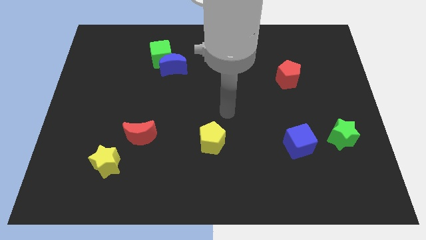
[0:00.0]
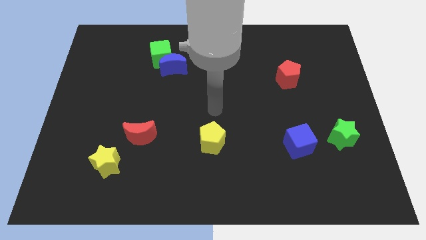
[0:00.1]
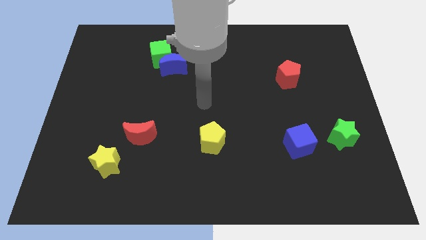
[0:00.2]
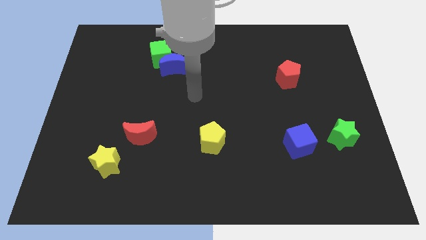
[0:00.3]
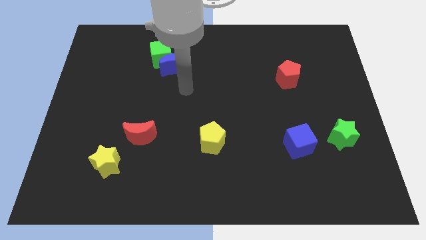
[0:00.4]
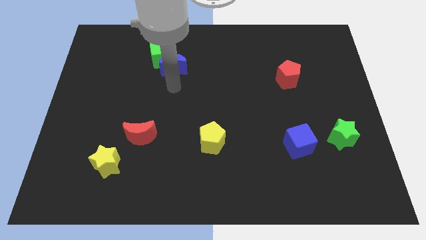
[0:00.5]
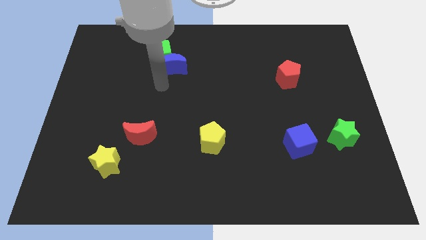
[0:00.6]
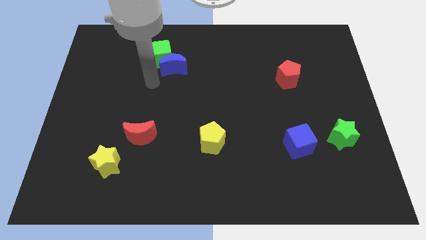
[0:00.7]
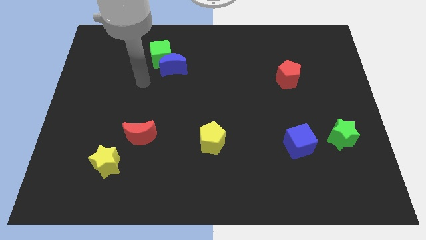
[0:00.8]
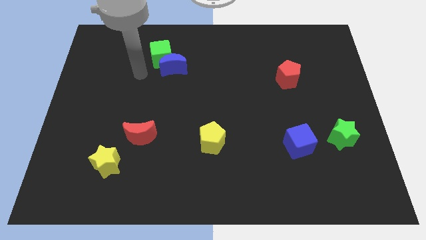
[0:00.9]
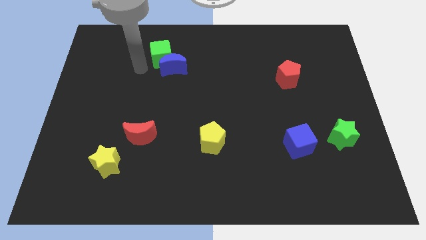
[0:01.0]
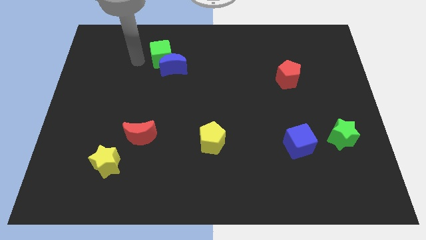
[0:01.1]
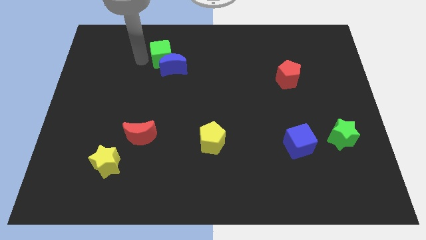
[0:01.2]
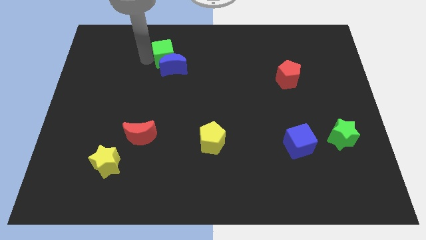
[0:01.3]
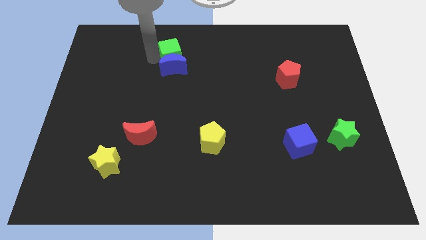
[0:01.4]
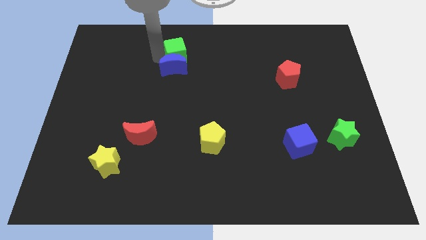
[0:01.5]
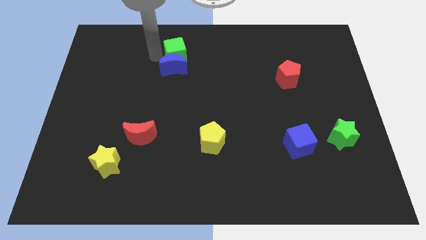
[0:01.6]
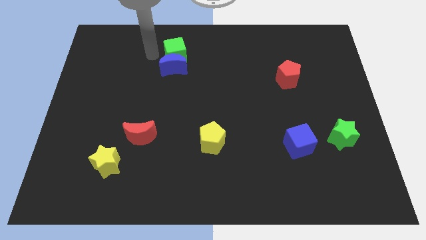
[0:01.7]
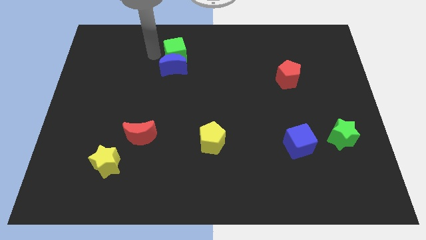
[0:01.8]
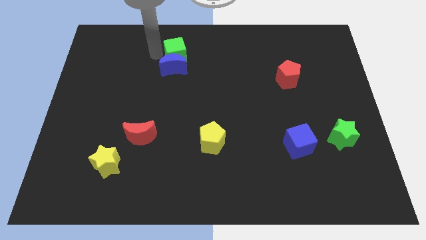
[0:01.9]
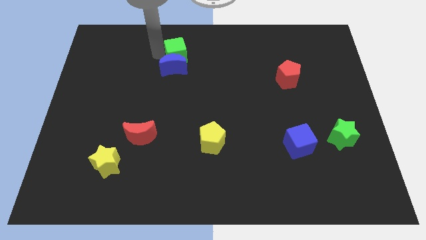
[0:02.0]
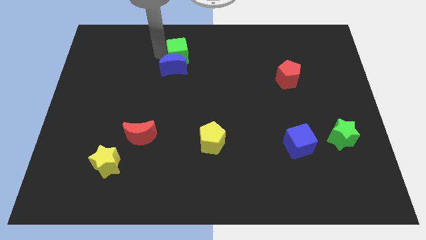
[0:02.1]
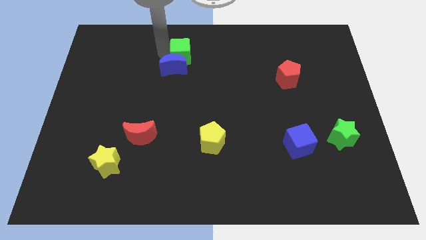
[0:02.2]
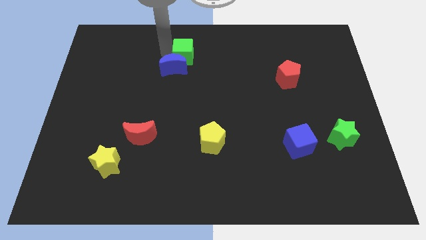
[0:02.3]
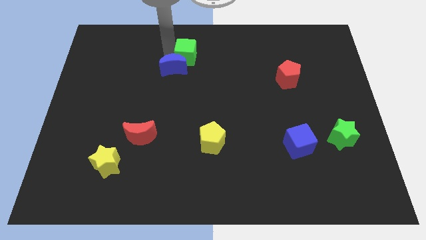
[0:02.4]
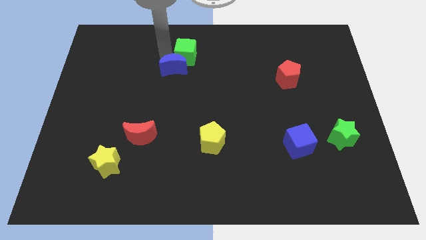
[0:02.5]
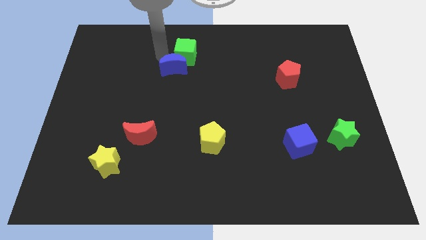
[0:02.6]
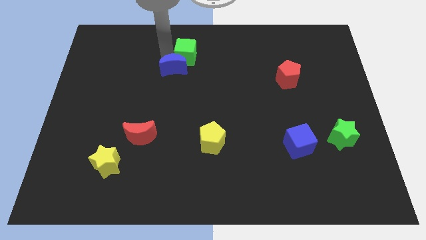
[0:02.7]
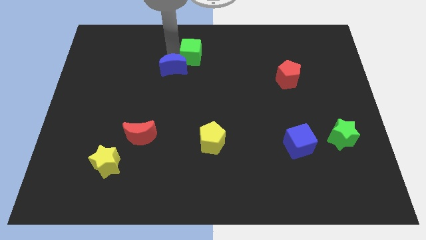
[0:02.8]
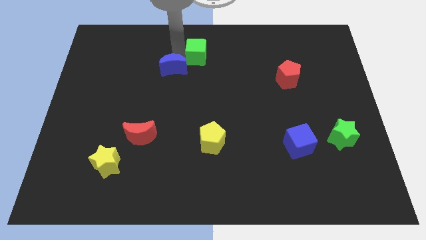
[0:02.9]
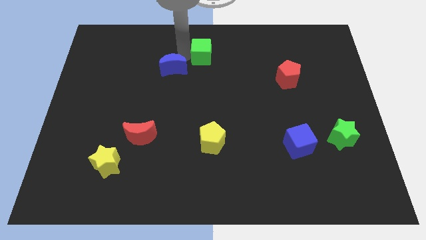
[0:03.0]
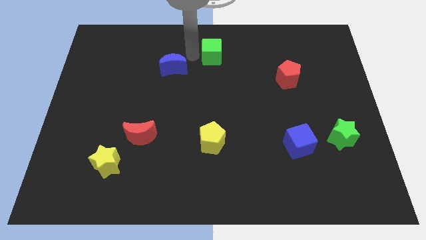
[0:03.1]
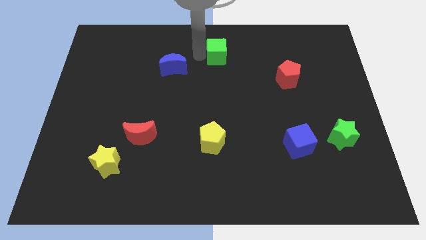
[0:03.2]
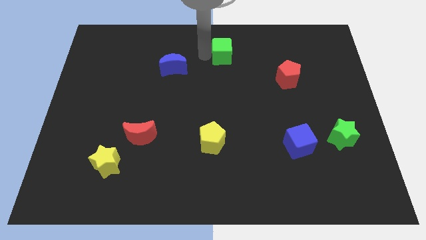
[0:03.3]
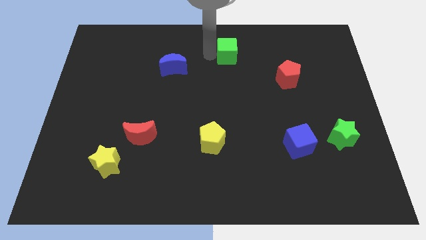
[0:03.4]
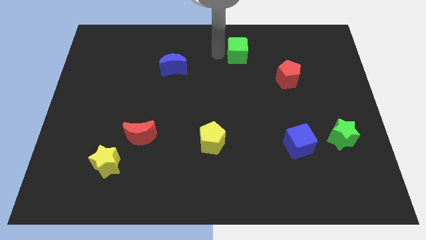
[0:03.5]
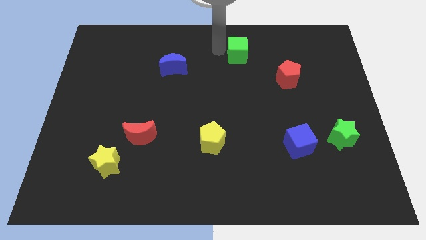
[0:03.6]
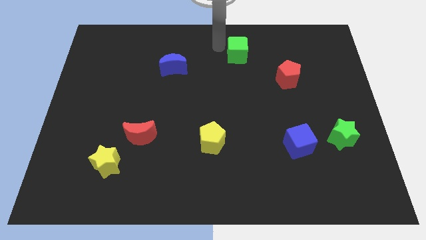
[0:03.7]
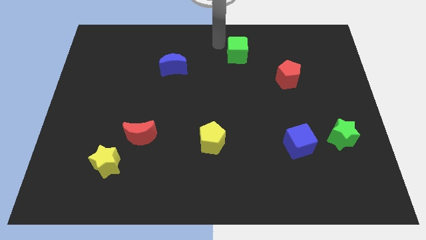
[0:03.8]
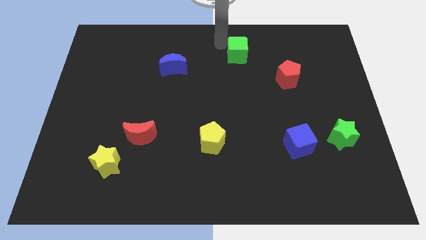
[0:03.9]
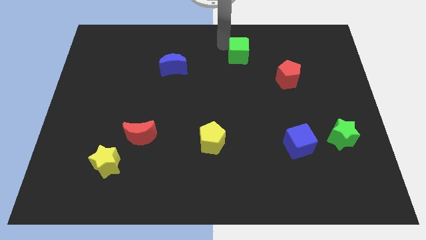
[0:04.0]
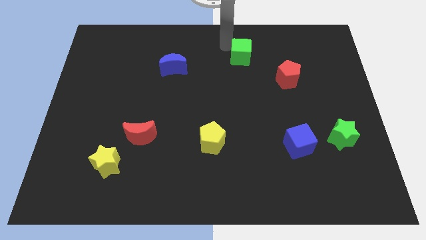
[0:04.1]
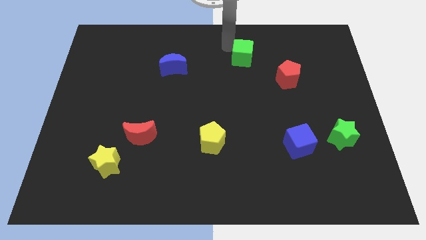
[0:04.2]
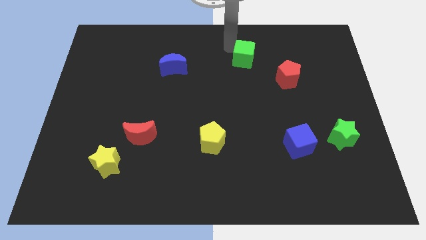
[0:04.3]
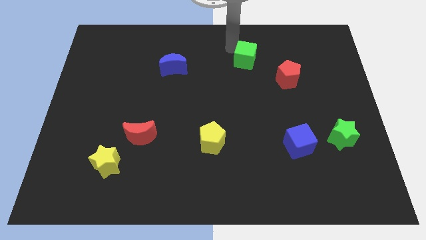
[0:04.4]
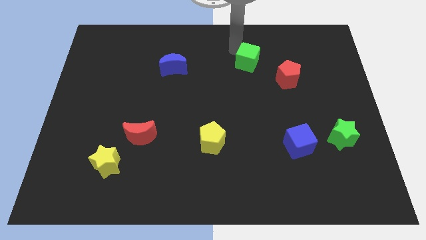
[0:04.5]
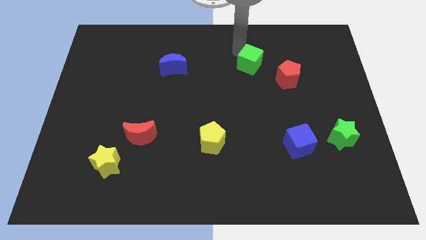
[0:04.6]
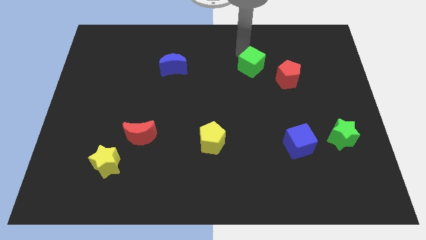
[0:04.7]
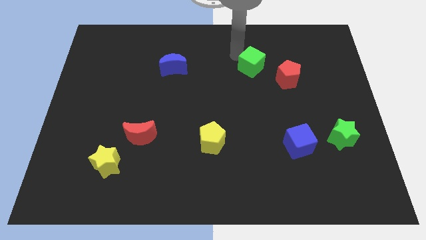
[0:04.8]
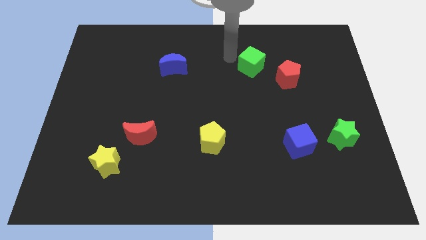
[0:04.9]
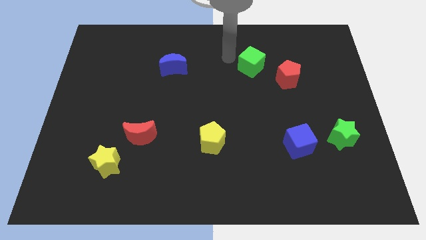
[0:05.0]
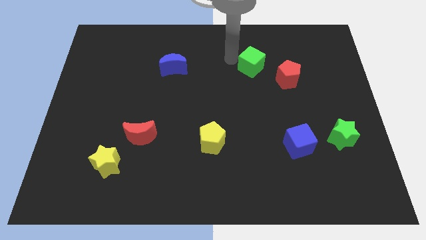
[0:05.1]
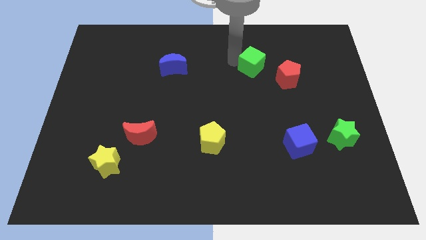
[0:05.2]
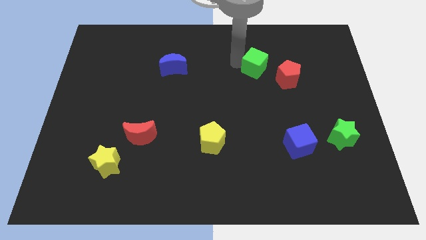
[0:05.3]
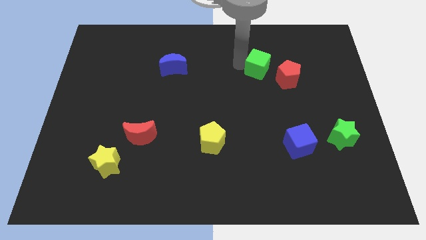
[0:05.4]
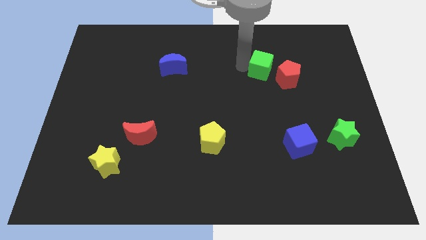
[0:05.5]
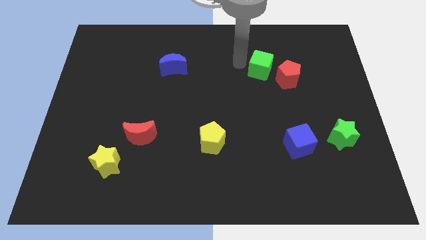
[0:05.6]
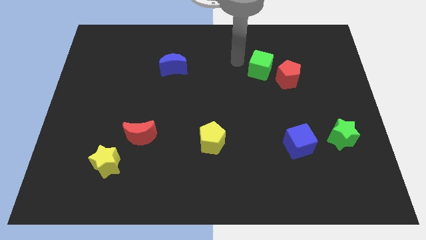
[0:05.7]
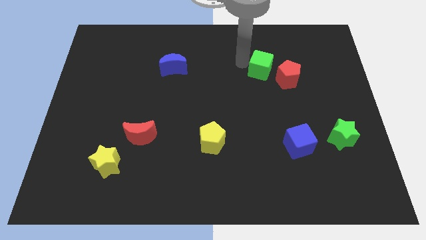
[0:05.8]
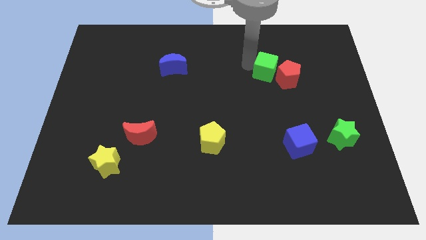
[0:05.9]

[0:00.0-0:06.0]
slide the green cube close to the red pentagon
